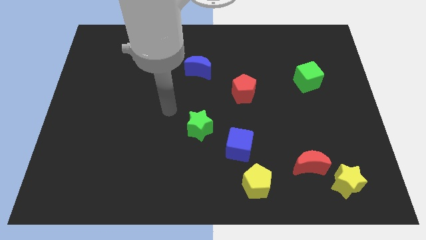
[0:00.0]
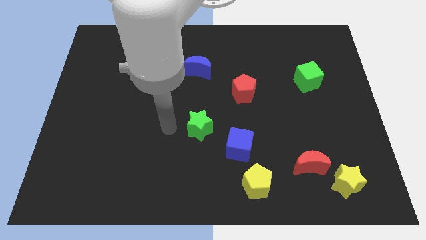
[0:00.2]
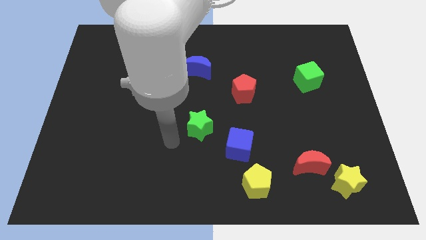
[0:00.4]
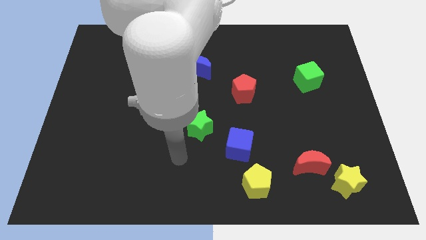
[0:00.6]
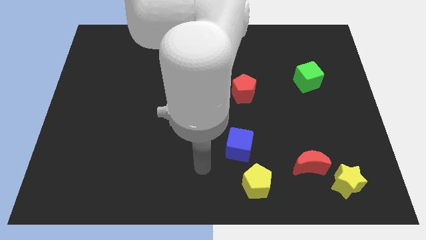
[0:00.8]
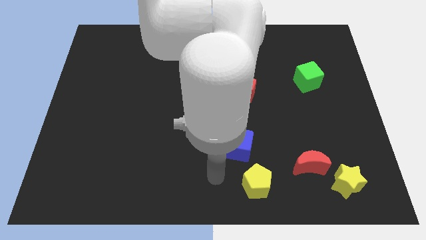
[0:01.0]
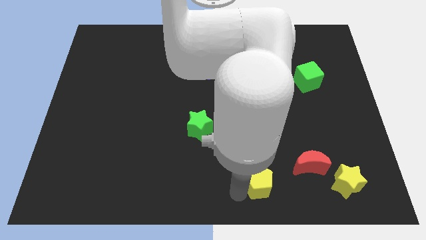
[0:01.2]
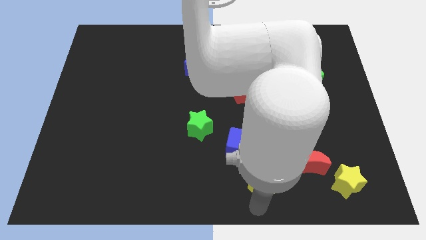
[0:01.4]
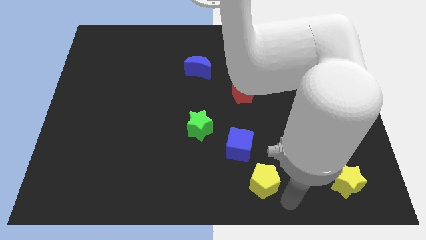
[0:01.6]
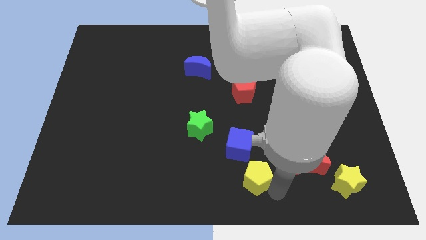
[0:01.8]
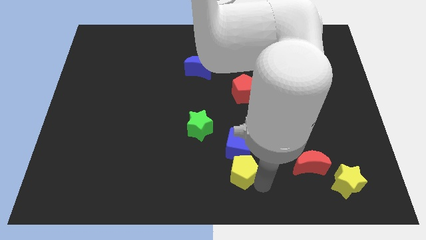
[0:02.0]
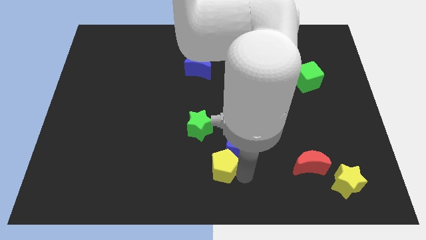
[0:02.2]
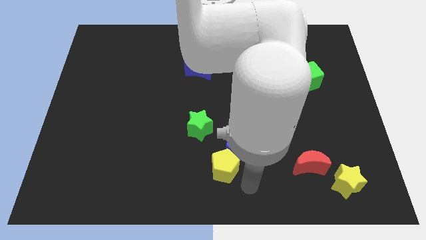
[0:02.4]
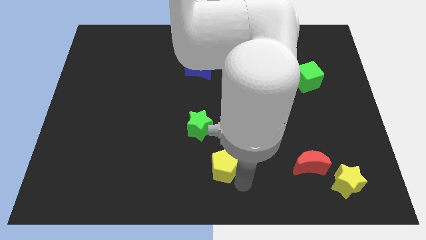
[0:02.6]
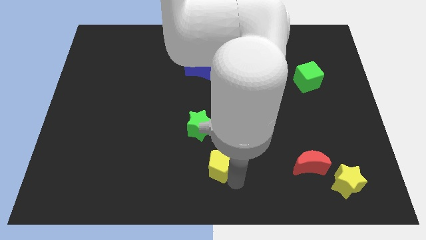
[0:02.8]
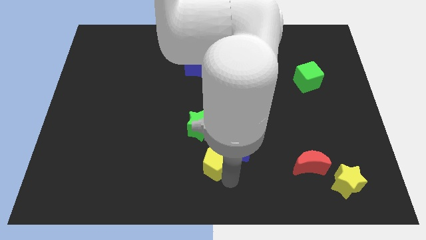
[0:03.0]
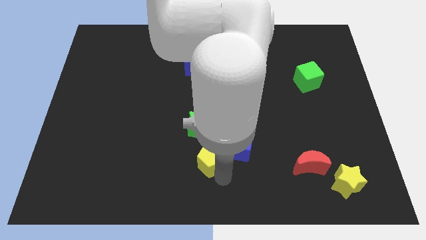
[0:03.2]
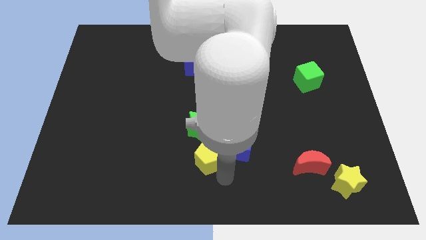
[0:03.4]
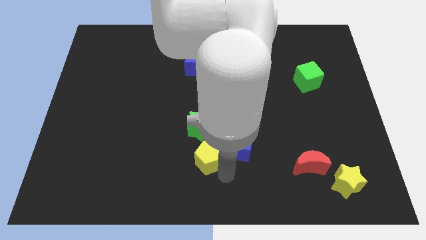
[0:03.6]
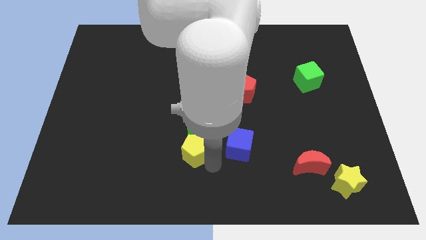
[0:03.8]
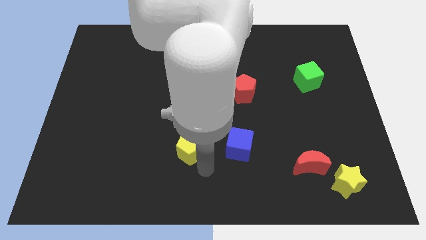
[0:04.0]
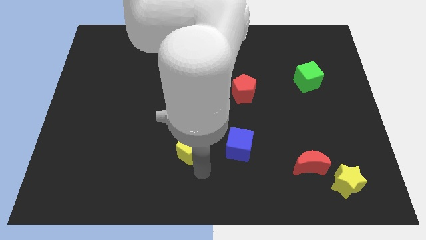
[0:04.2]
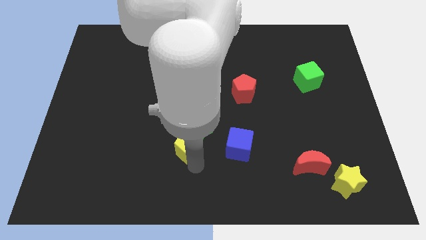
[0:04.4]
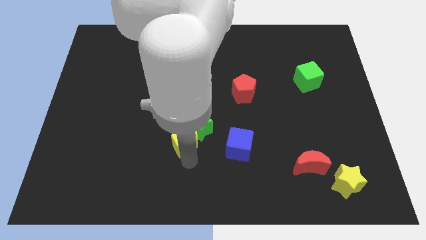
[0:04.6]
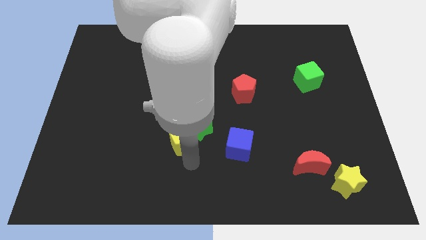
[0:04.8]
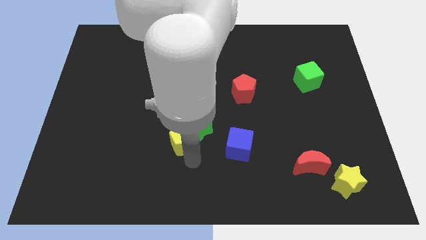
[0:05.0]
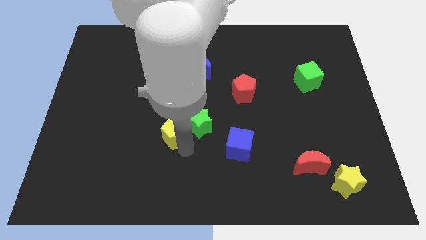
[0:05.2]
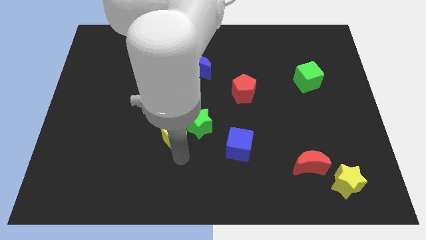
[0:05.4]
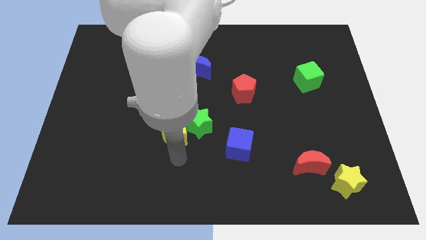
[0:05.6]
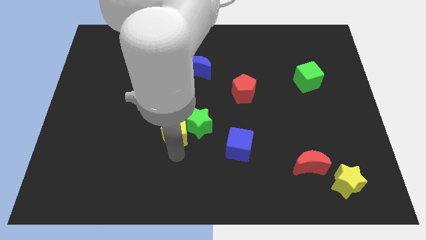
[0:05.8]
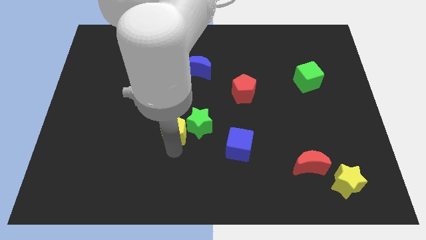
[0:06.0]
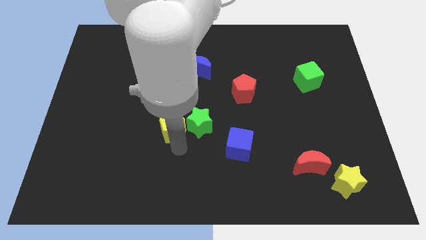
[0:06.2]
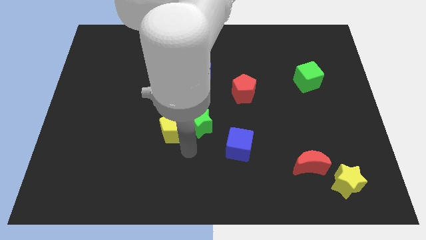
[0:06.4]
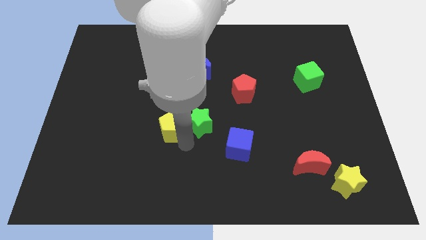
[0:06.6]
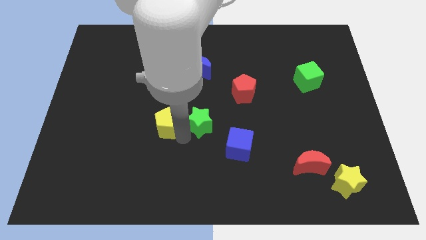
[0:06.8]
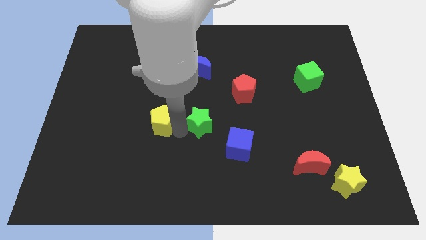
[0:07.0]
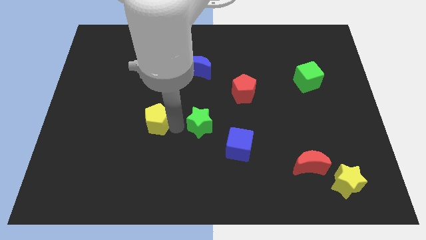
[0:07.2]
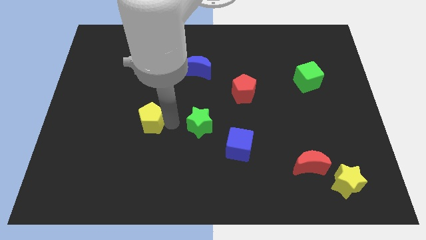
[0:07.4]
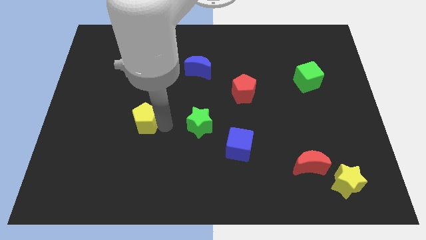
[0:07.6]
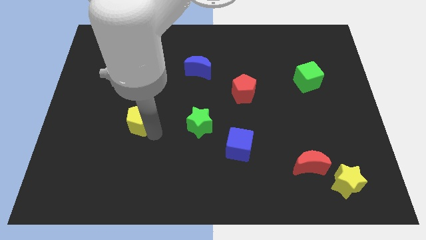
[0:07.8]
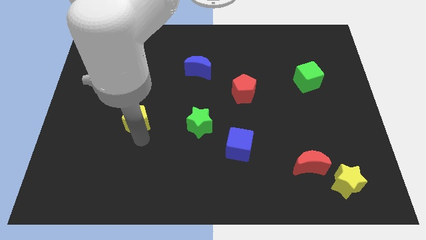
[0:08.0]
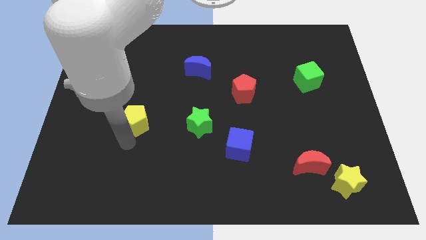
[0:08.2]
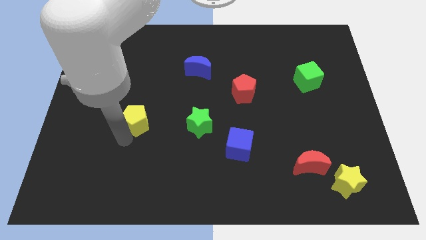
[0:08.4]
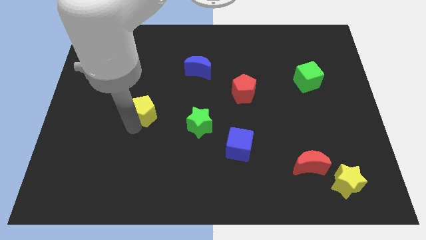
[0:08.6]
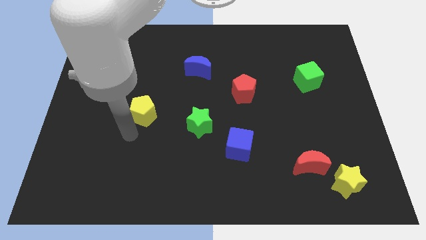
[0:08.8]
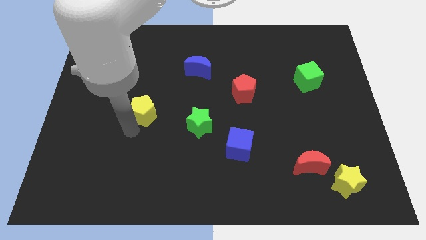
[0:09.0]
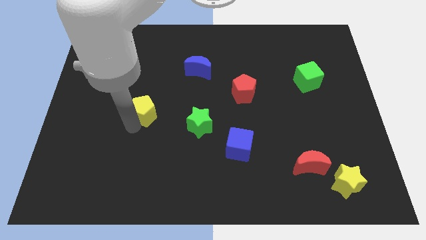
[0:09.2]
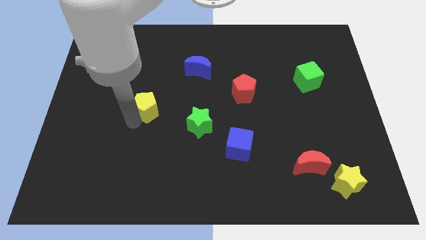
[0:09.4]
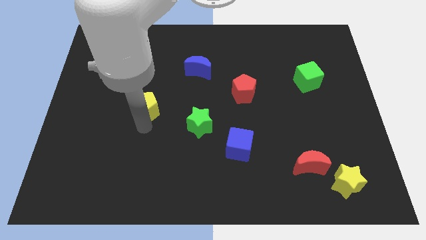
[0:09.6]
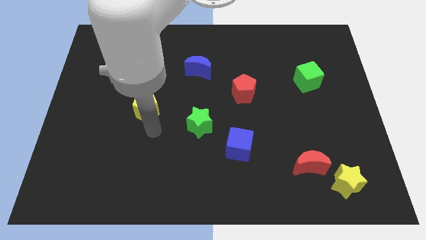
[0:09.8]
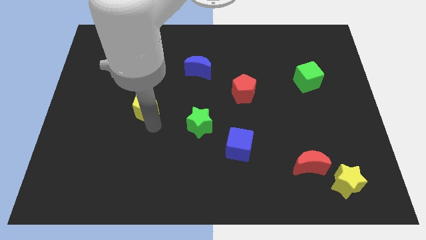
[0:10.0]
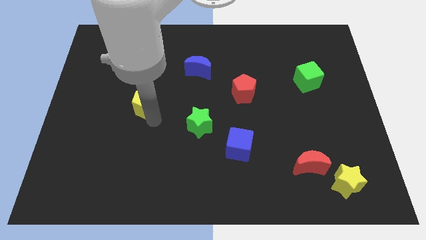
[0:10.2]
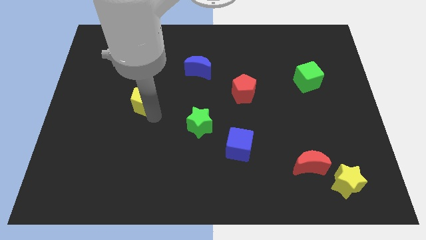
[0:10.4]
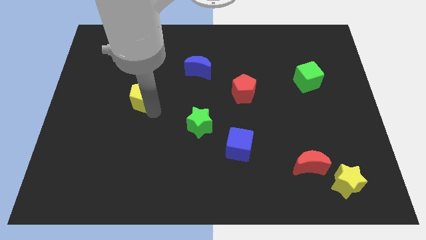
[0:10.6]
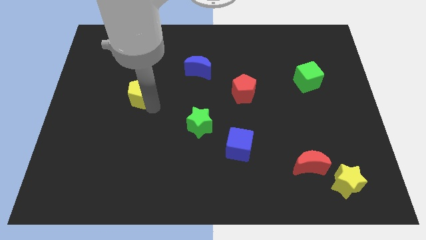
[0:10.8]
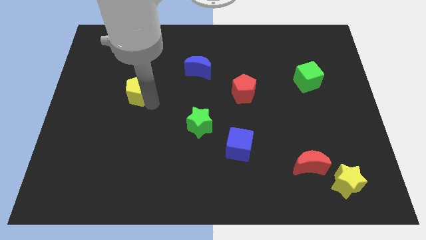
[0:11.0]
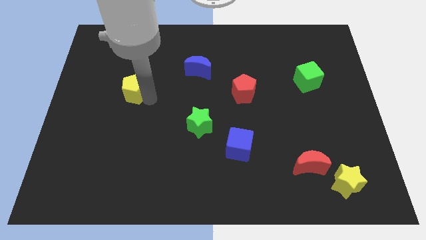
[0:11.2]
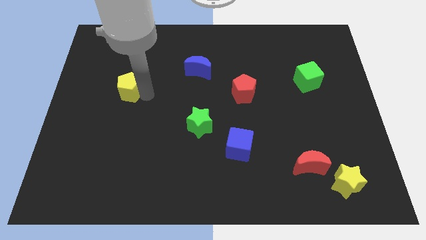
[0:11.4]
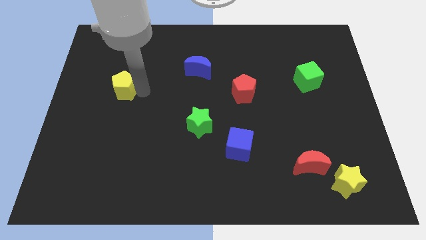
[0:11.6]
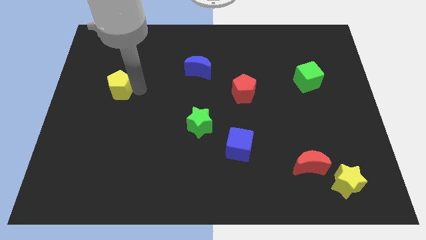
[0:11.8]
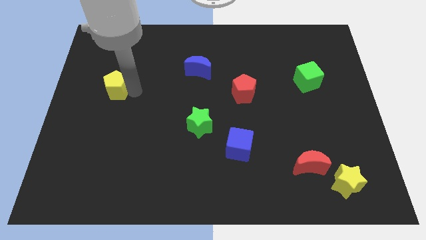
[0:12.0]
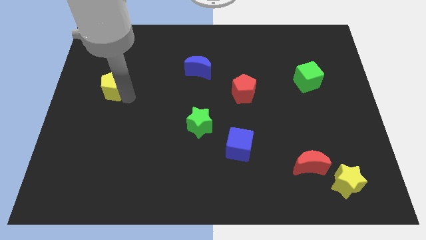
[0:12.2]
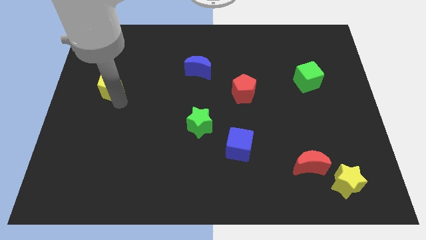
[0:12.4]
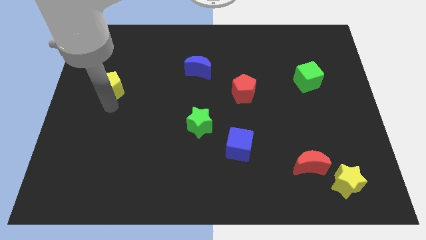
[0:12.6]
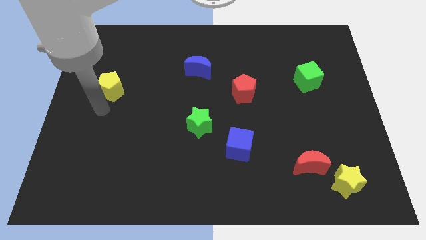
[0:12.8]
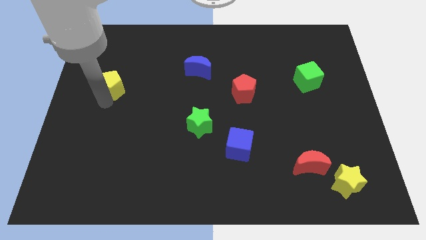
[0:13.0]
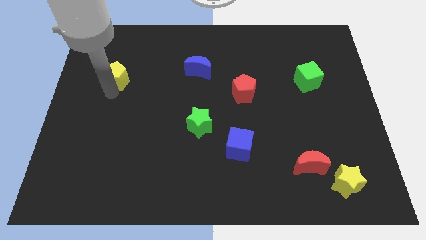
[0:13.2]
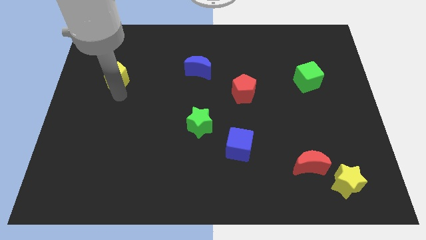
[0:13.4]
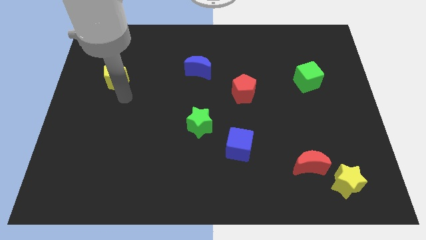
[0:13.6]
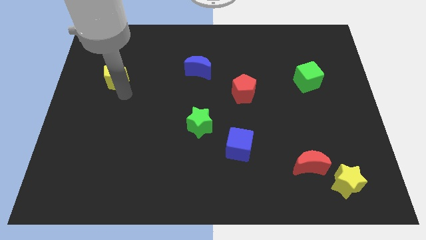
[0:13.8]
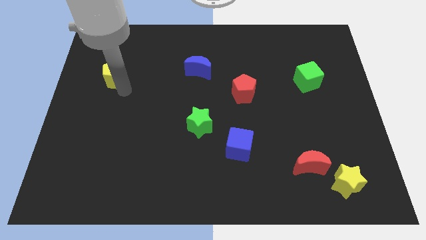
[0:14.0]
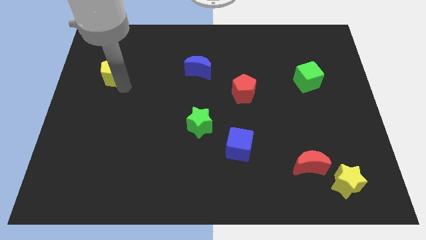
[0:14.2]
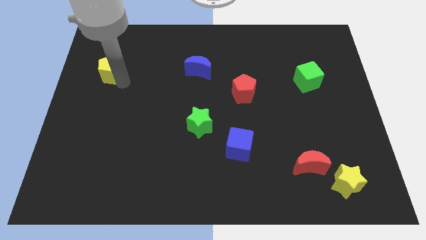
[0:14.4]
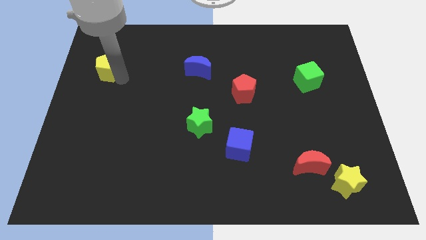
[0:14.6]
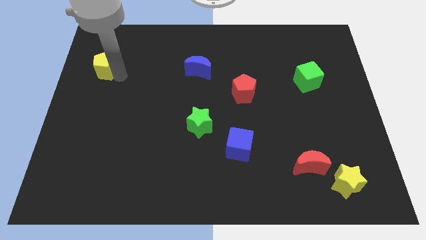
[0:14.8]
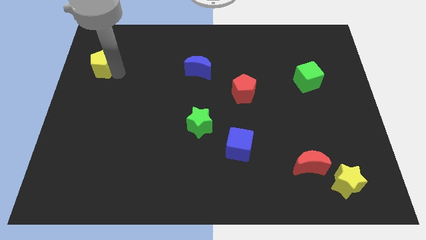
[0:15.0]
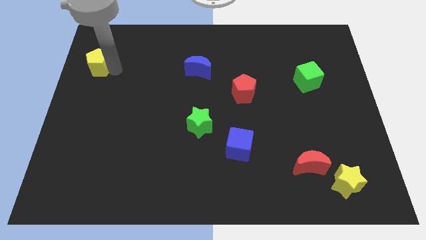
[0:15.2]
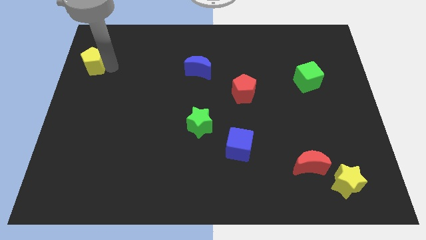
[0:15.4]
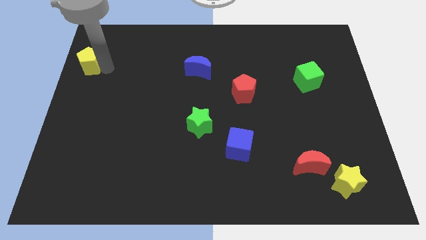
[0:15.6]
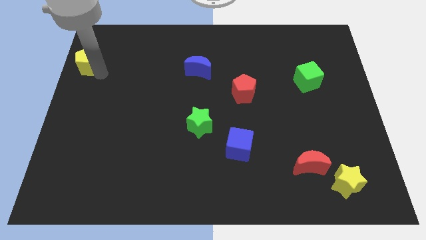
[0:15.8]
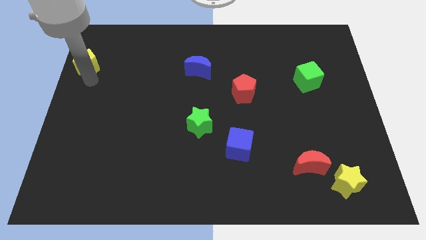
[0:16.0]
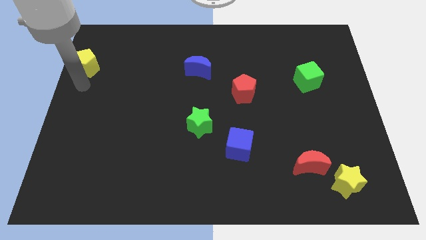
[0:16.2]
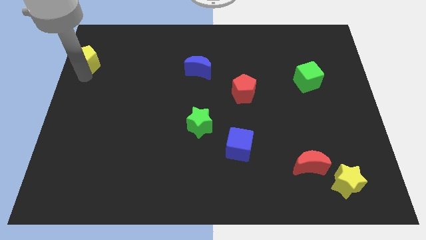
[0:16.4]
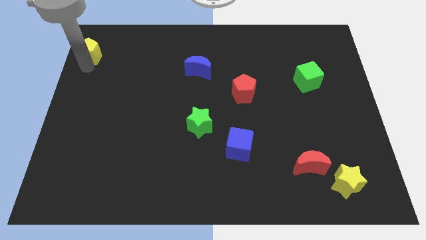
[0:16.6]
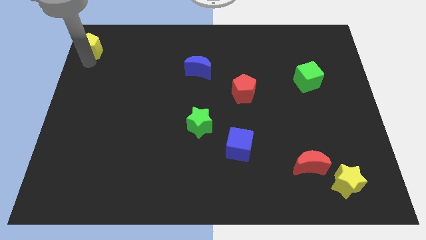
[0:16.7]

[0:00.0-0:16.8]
slide the yellow pentagon to the top left of the board
